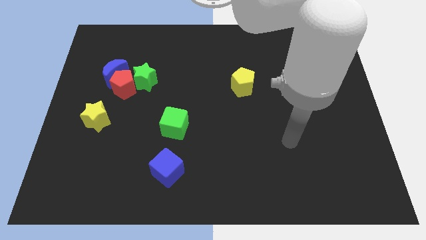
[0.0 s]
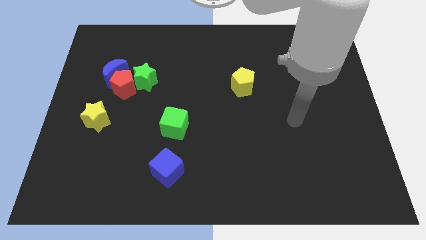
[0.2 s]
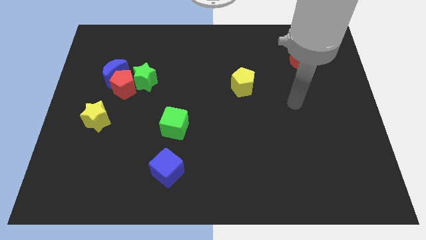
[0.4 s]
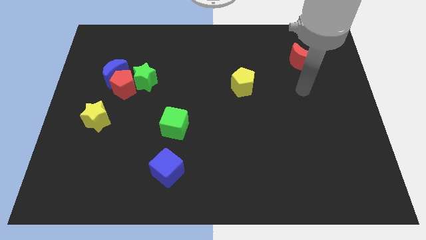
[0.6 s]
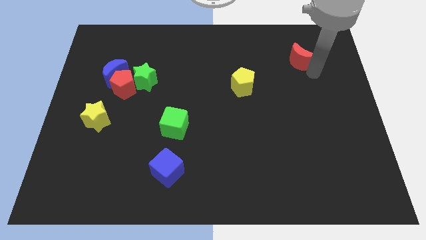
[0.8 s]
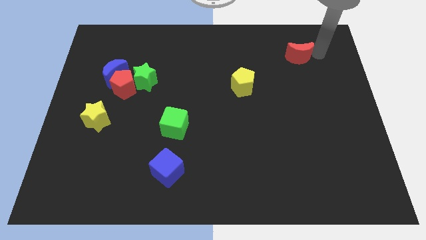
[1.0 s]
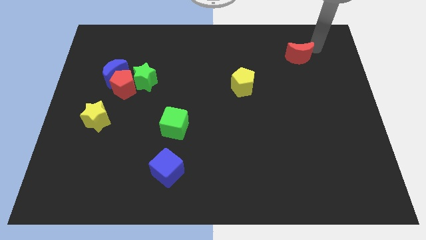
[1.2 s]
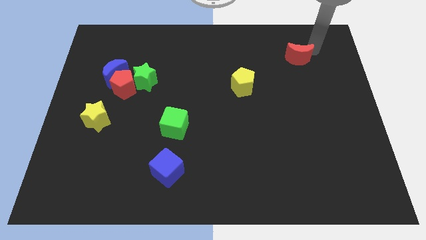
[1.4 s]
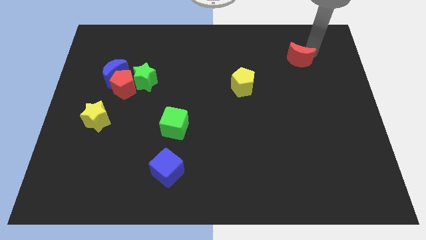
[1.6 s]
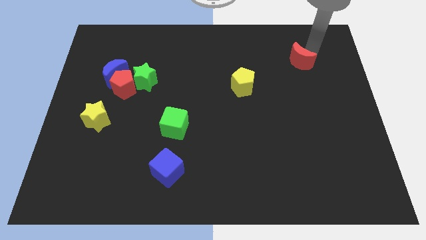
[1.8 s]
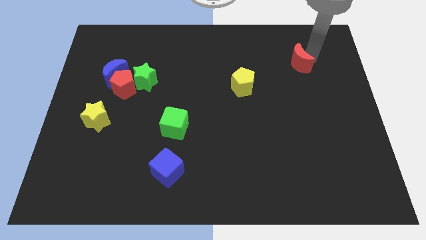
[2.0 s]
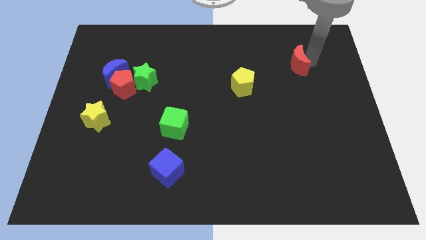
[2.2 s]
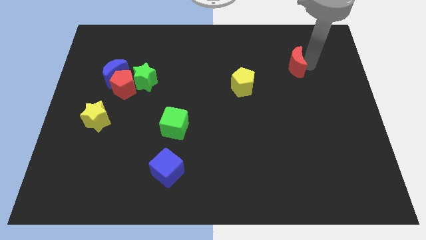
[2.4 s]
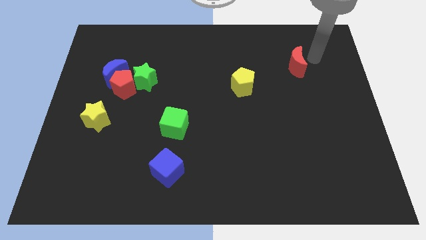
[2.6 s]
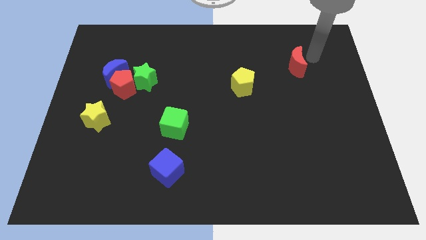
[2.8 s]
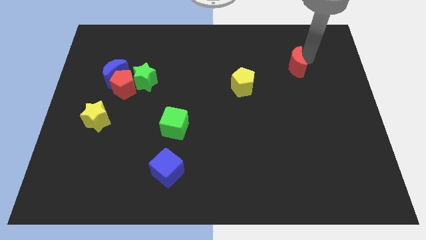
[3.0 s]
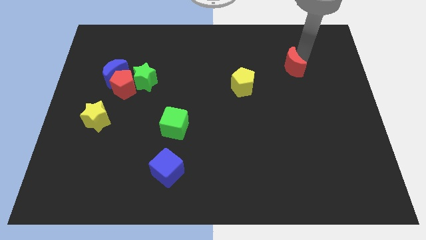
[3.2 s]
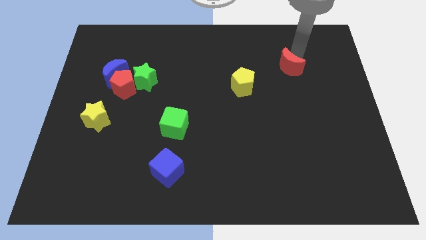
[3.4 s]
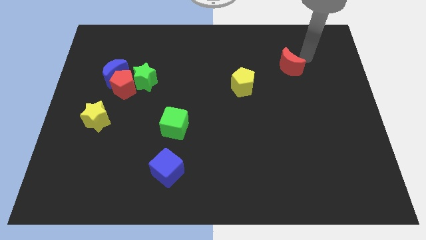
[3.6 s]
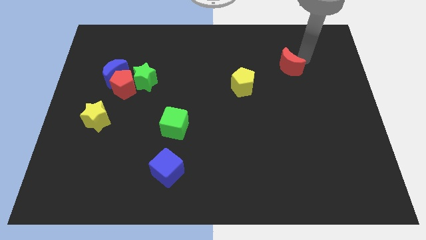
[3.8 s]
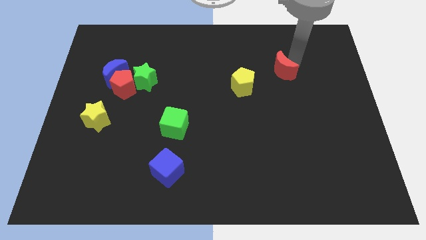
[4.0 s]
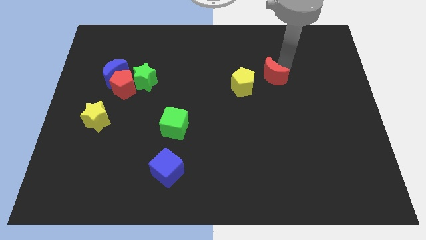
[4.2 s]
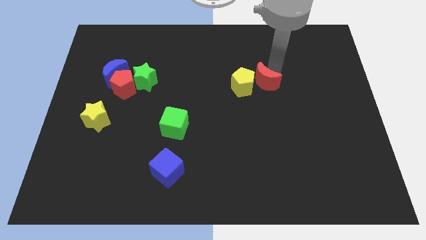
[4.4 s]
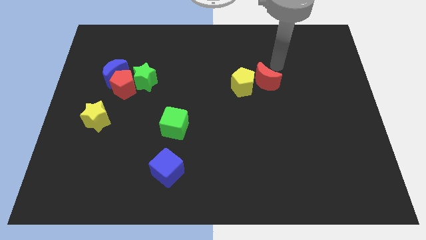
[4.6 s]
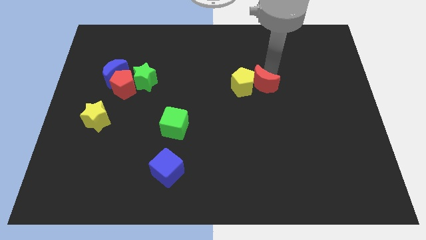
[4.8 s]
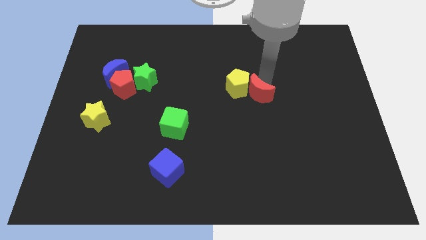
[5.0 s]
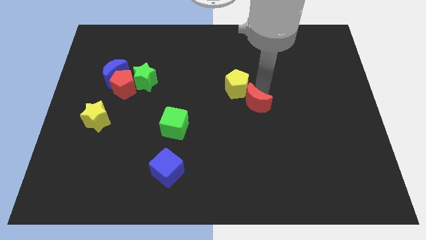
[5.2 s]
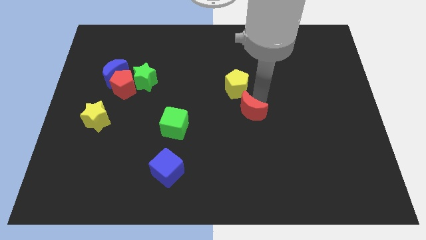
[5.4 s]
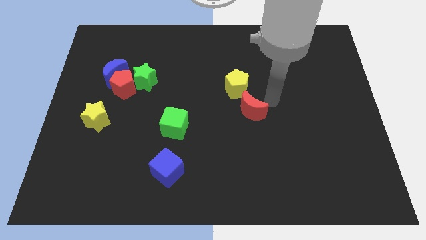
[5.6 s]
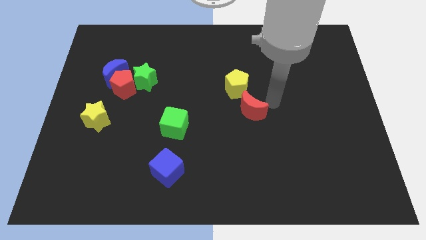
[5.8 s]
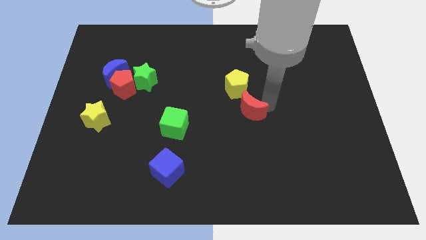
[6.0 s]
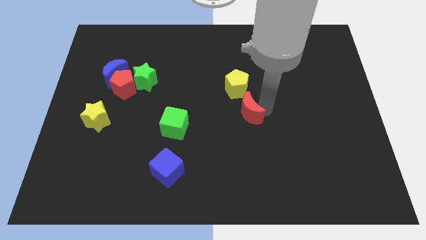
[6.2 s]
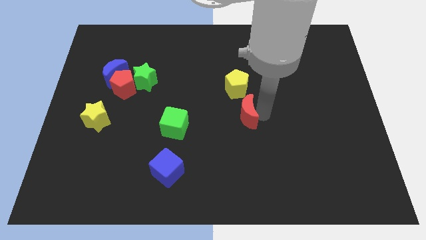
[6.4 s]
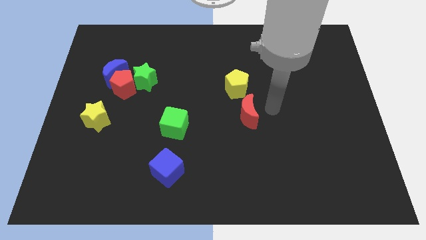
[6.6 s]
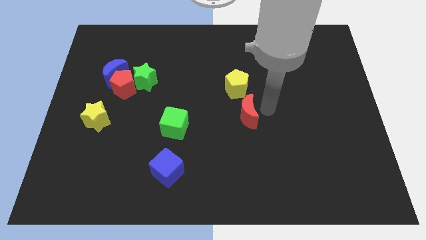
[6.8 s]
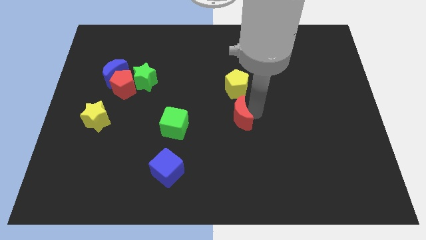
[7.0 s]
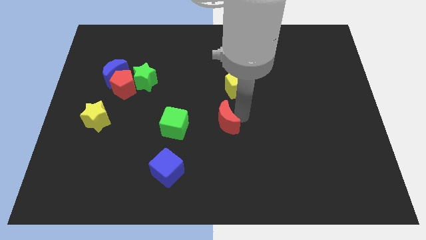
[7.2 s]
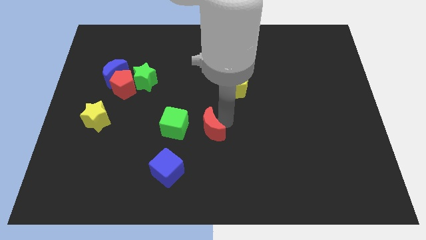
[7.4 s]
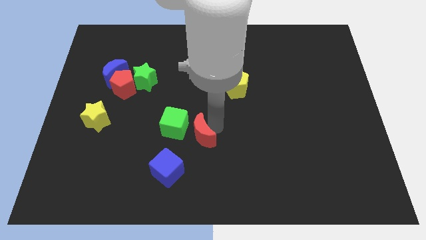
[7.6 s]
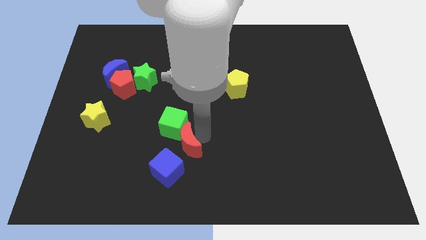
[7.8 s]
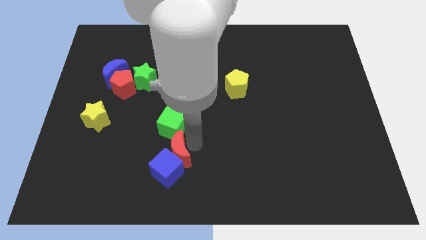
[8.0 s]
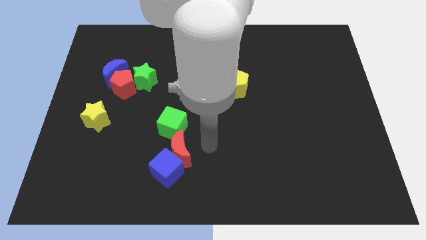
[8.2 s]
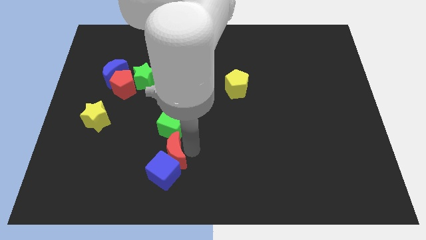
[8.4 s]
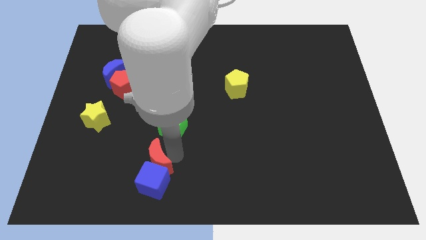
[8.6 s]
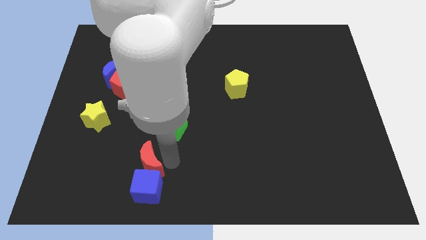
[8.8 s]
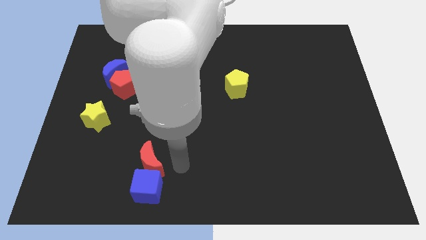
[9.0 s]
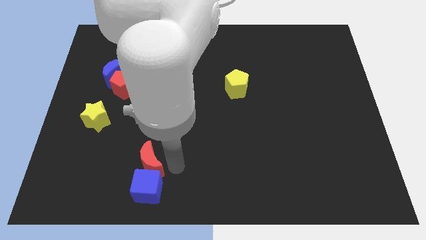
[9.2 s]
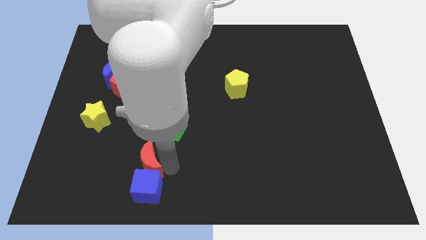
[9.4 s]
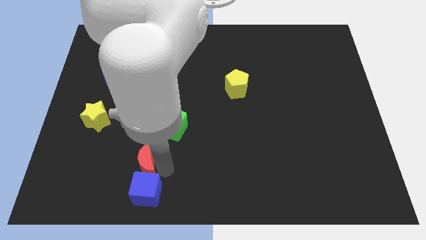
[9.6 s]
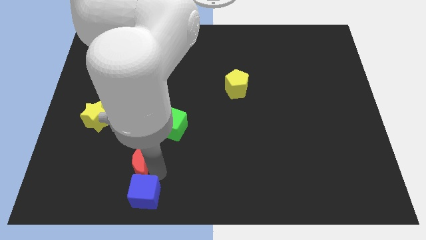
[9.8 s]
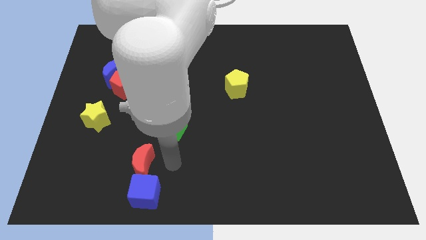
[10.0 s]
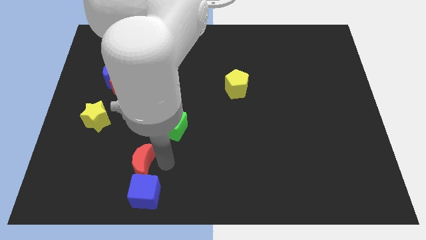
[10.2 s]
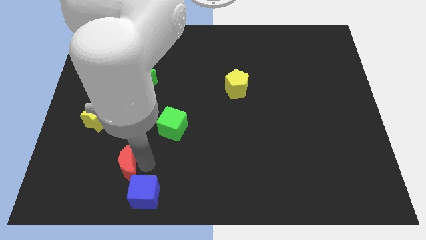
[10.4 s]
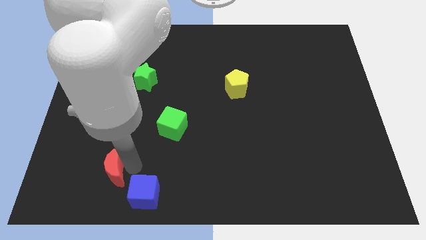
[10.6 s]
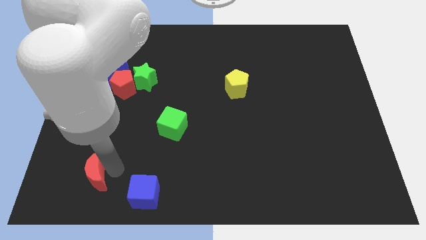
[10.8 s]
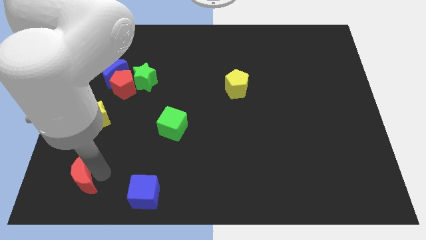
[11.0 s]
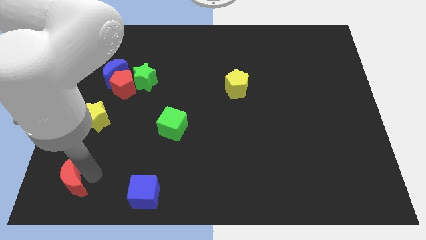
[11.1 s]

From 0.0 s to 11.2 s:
slide the red moon to the bottom left

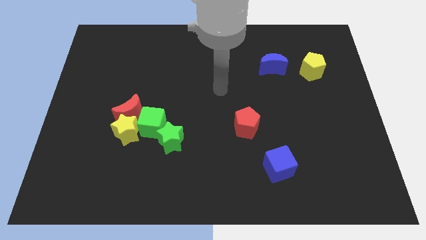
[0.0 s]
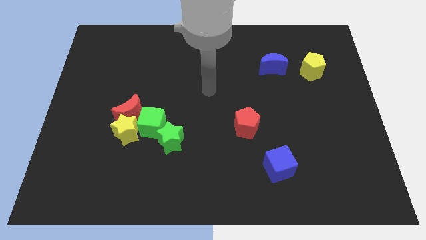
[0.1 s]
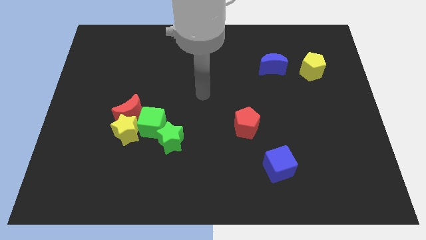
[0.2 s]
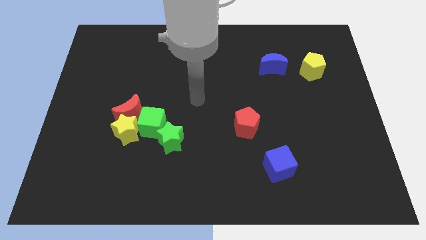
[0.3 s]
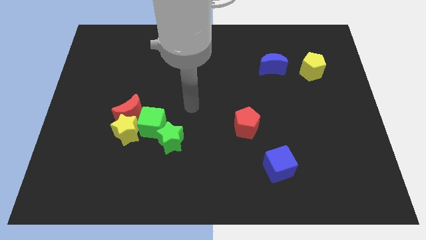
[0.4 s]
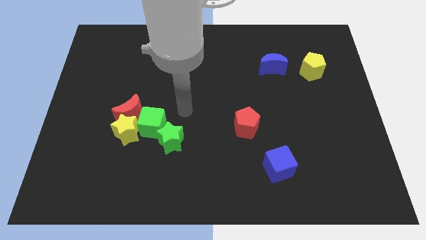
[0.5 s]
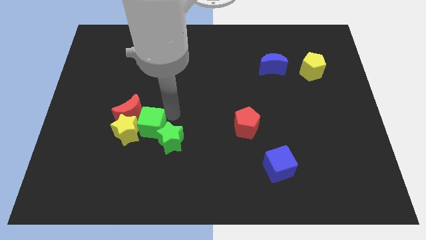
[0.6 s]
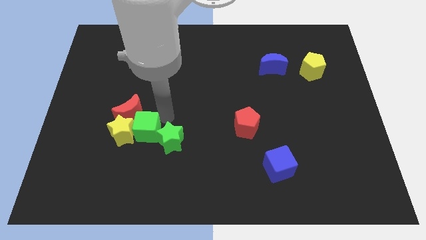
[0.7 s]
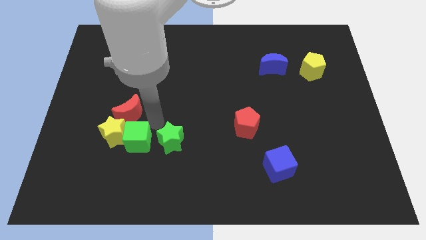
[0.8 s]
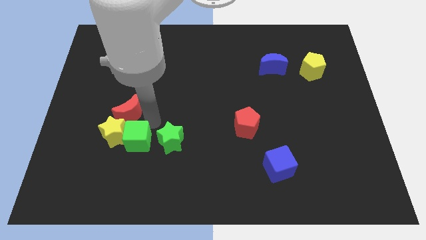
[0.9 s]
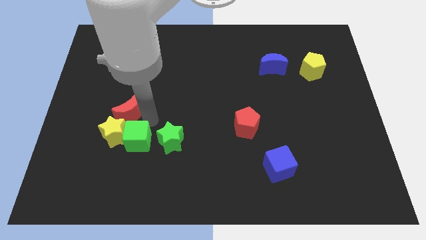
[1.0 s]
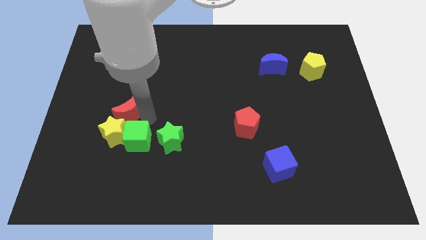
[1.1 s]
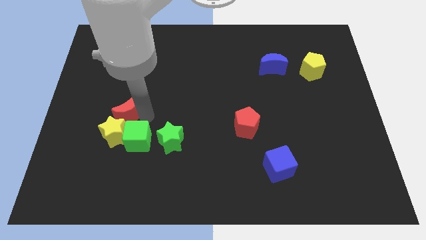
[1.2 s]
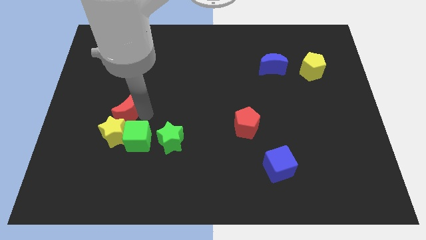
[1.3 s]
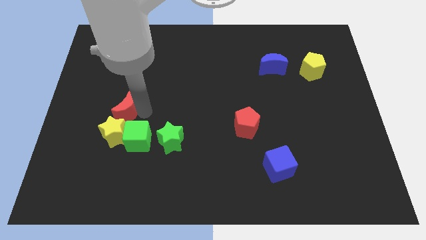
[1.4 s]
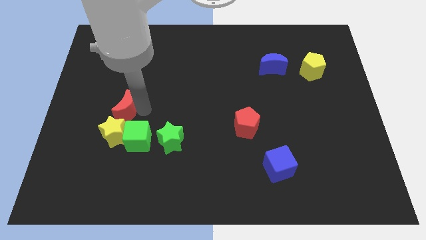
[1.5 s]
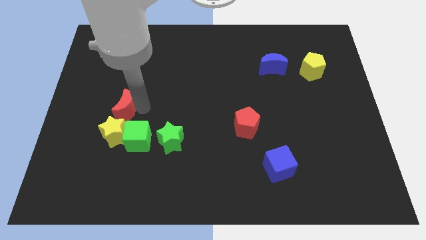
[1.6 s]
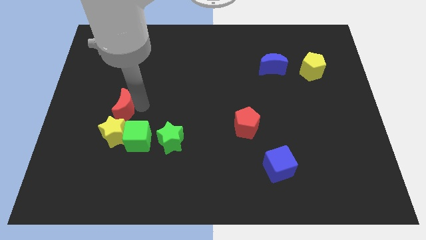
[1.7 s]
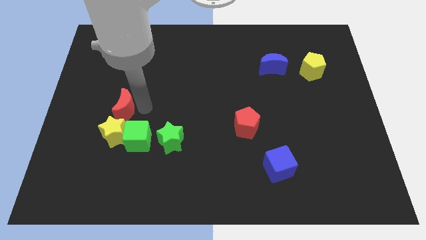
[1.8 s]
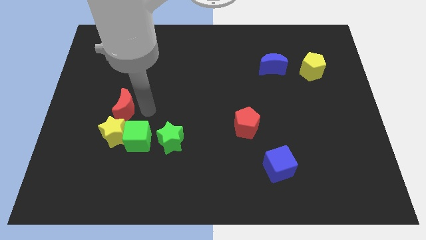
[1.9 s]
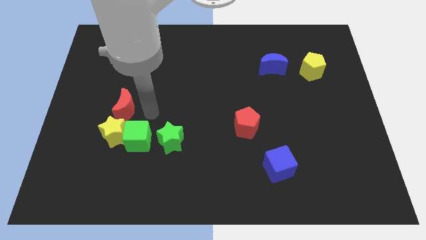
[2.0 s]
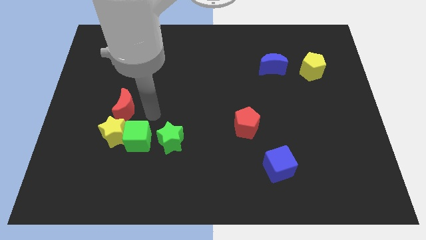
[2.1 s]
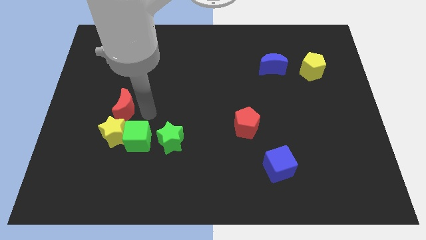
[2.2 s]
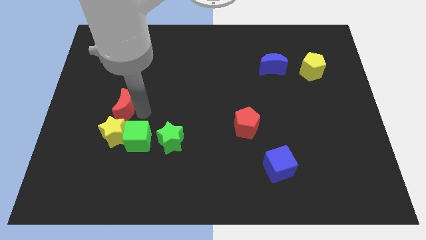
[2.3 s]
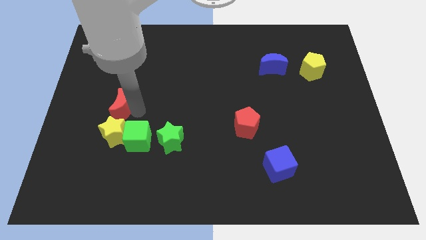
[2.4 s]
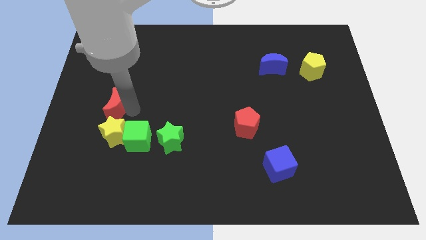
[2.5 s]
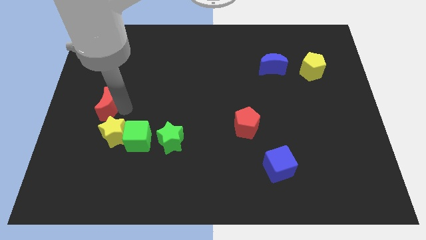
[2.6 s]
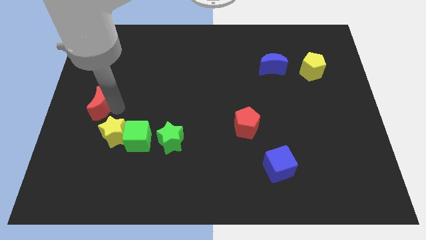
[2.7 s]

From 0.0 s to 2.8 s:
move the red moon to the left side of the board
